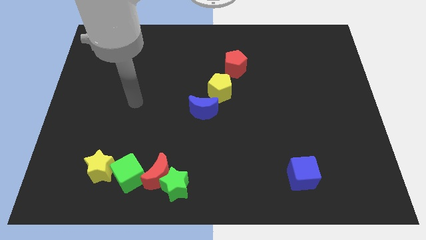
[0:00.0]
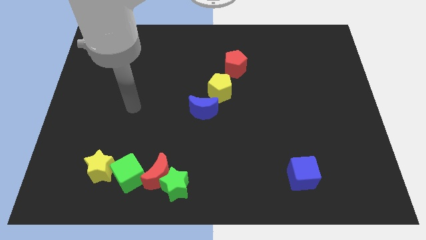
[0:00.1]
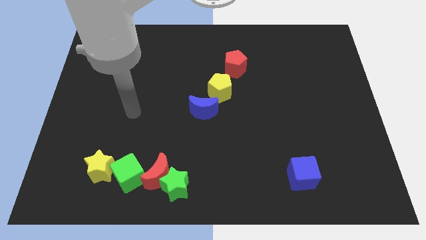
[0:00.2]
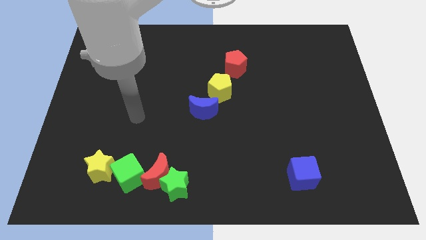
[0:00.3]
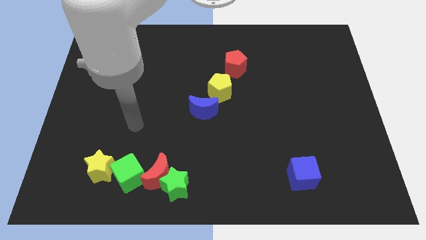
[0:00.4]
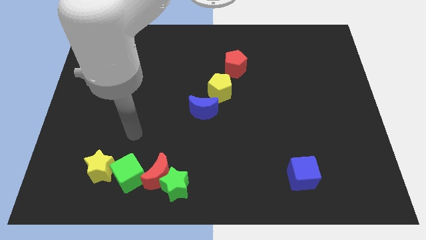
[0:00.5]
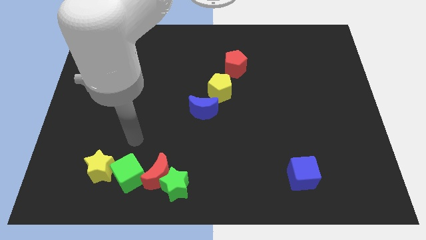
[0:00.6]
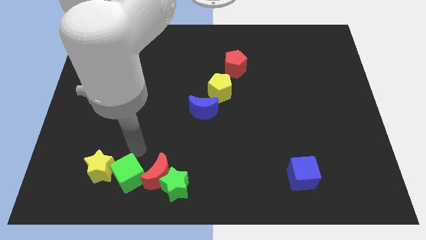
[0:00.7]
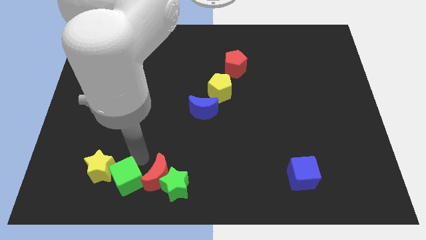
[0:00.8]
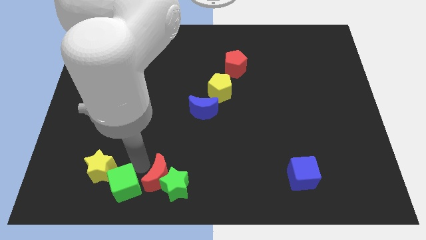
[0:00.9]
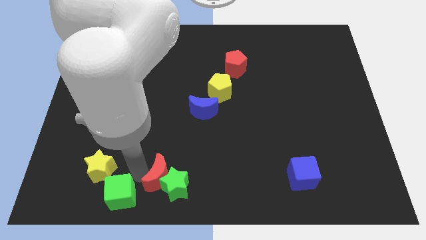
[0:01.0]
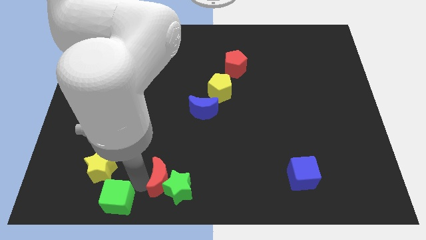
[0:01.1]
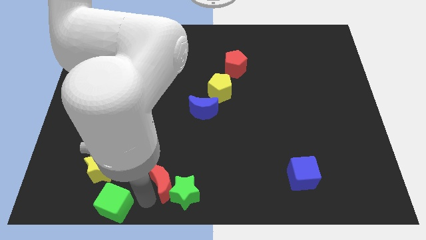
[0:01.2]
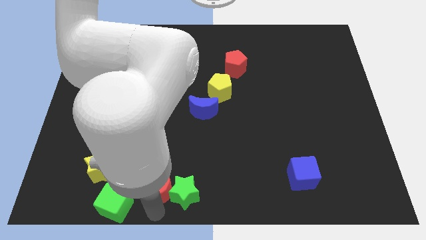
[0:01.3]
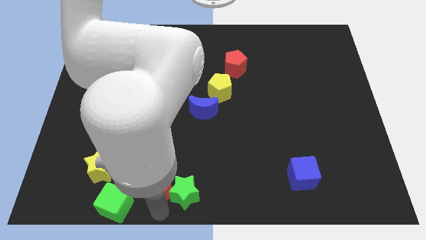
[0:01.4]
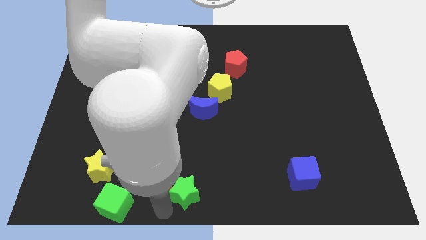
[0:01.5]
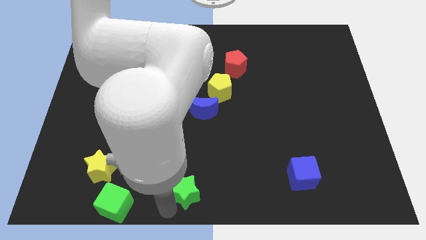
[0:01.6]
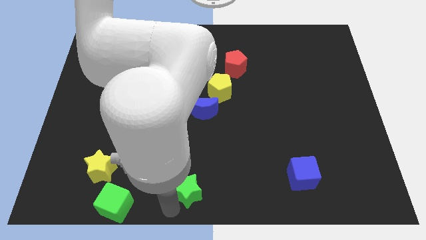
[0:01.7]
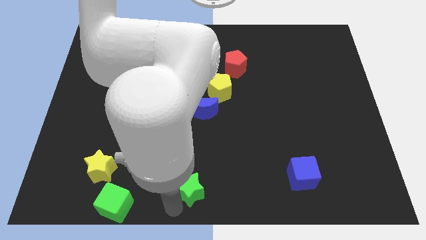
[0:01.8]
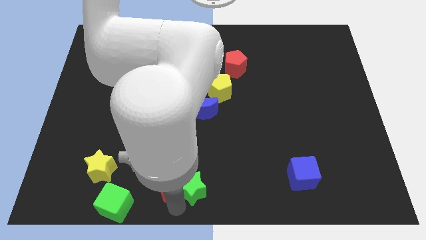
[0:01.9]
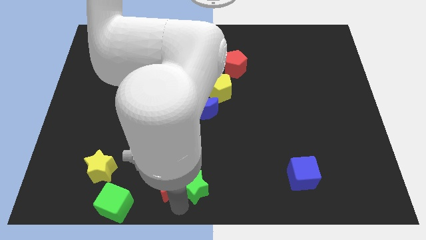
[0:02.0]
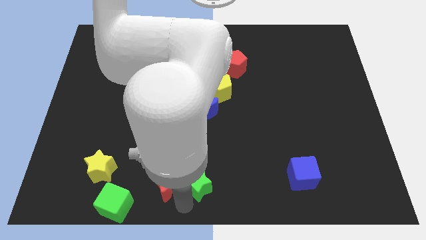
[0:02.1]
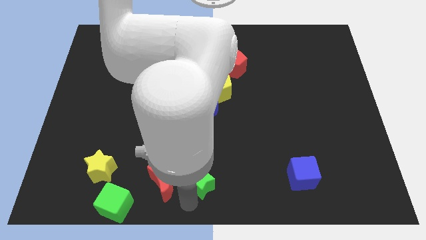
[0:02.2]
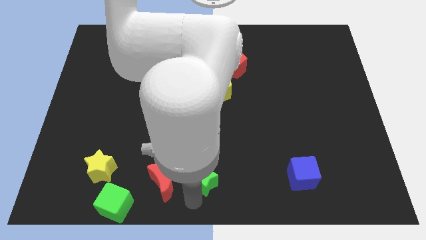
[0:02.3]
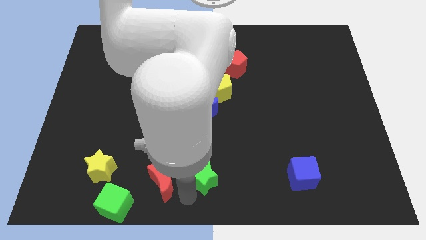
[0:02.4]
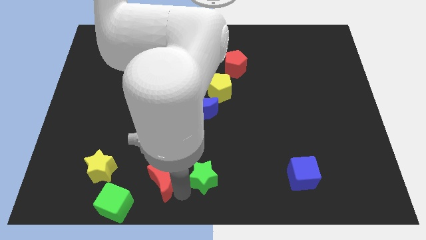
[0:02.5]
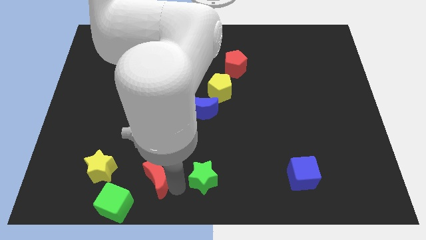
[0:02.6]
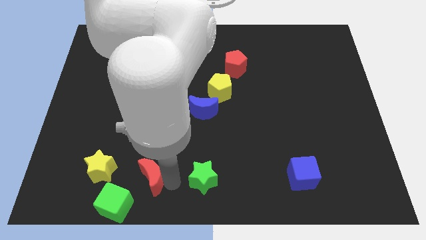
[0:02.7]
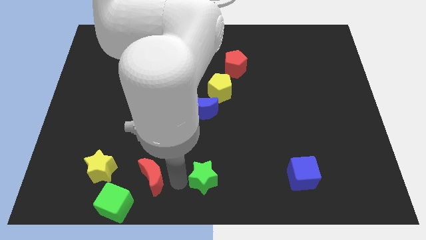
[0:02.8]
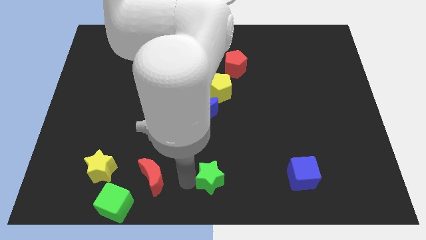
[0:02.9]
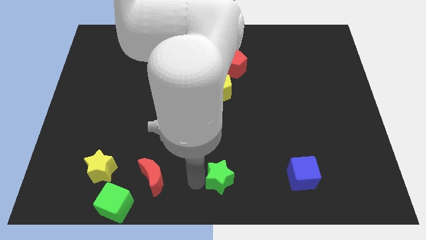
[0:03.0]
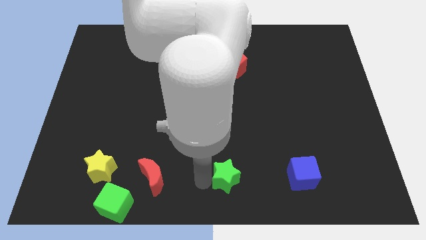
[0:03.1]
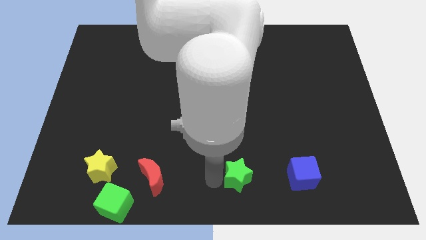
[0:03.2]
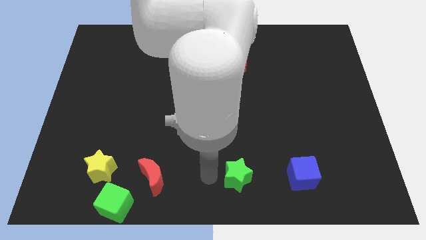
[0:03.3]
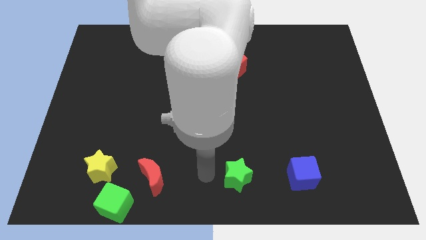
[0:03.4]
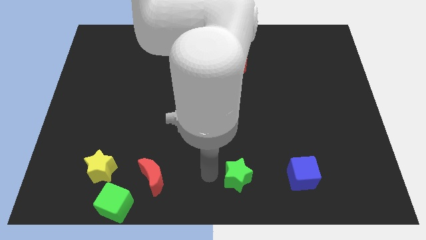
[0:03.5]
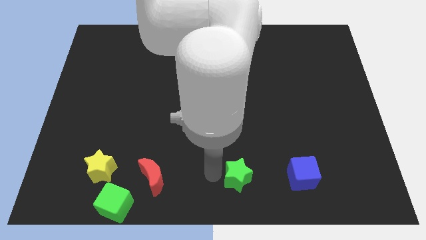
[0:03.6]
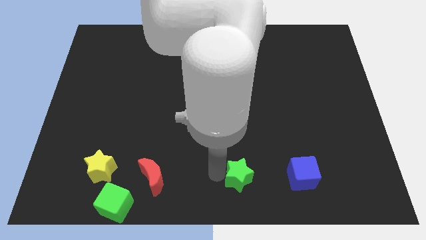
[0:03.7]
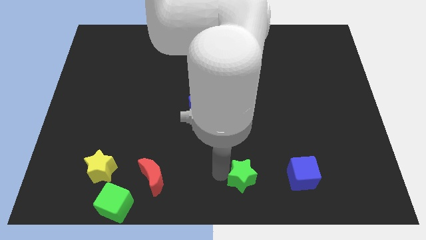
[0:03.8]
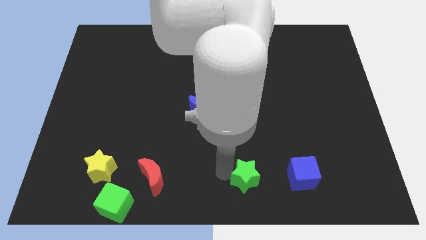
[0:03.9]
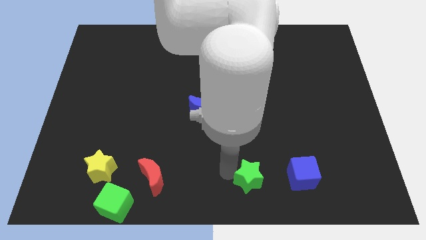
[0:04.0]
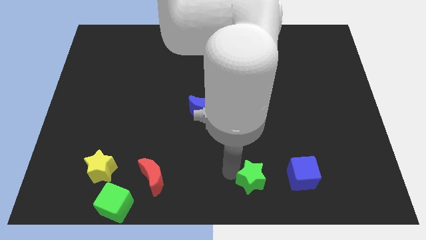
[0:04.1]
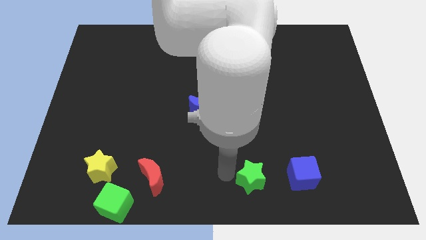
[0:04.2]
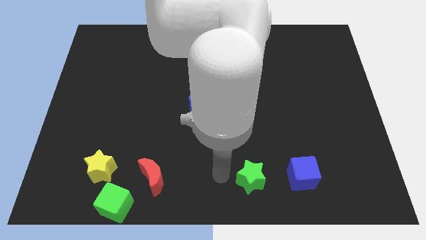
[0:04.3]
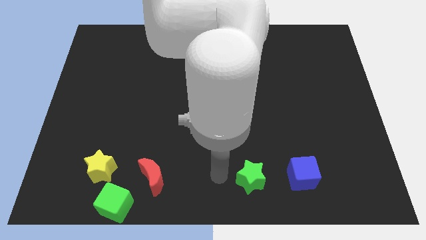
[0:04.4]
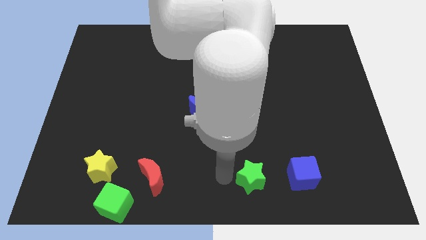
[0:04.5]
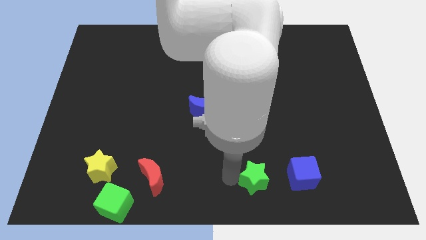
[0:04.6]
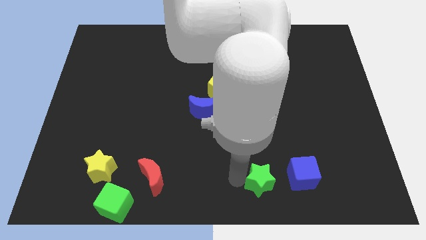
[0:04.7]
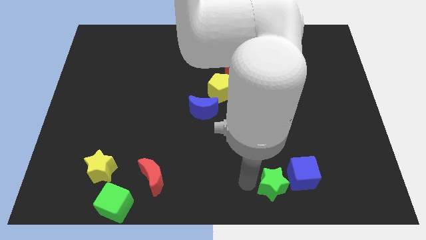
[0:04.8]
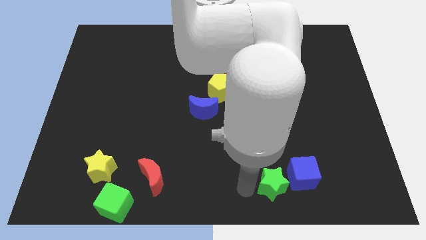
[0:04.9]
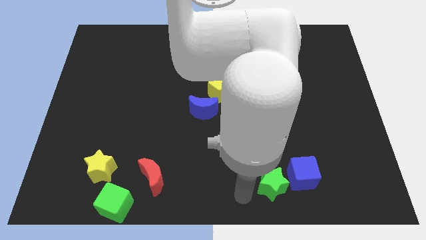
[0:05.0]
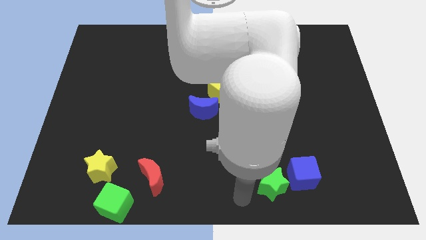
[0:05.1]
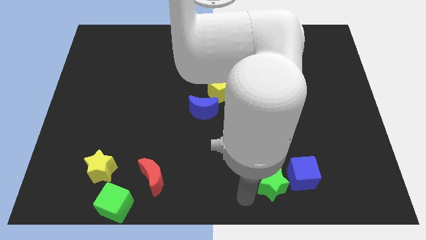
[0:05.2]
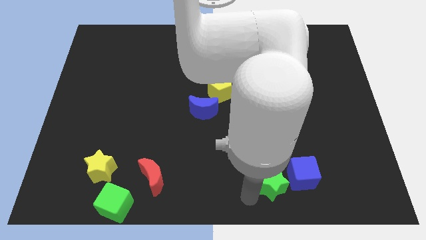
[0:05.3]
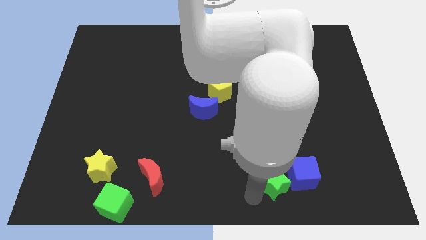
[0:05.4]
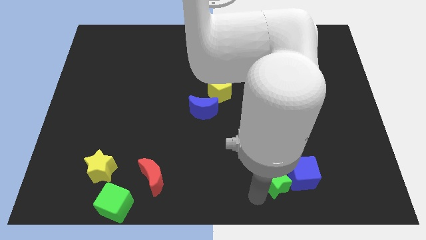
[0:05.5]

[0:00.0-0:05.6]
move the green star next to the blue cube

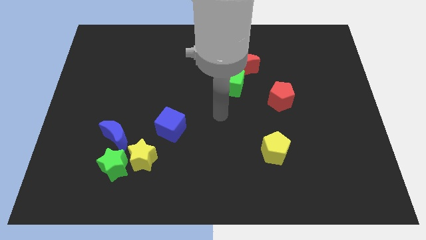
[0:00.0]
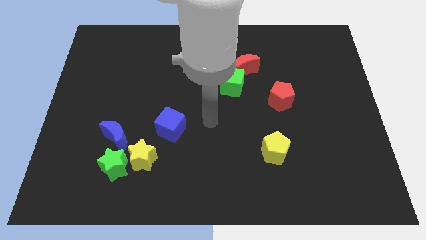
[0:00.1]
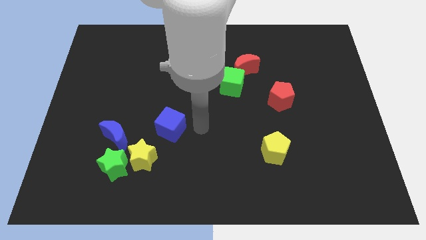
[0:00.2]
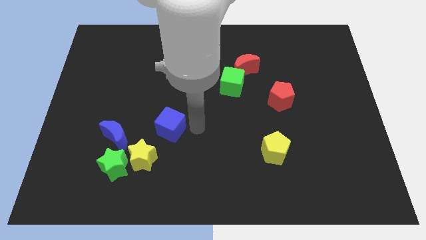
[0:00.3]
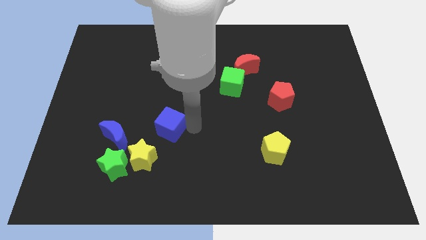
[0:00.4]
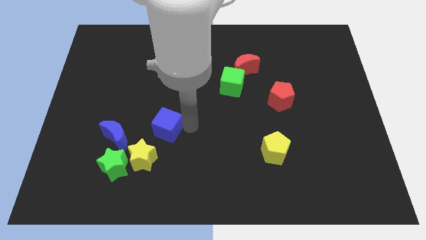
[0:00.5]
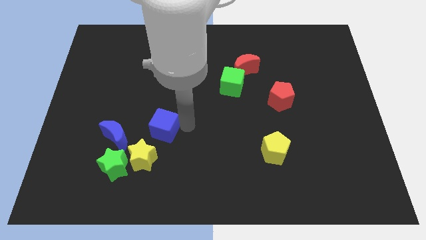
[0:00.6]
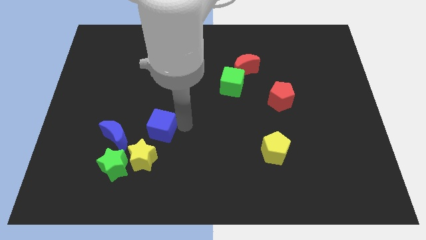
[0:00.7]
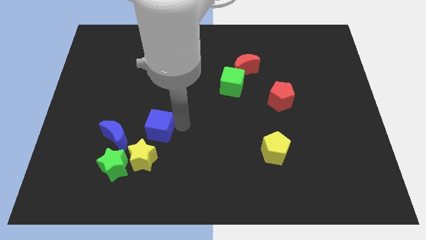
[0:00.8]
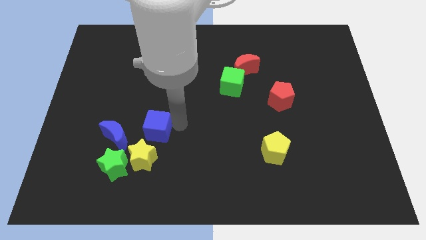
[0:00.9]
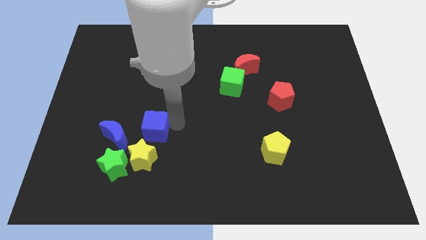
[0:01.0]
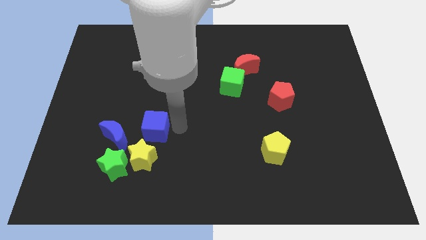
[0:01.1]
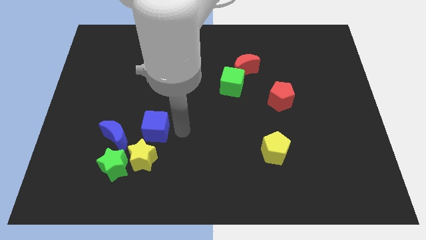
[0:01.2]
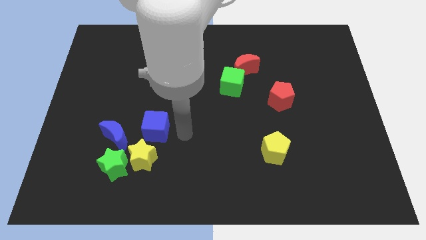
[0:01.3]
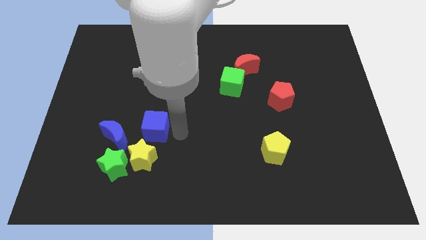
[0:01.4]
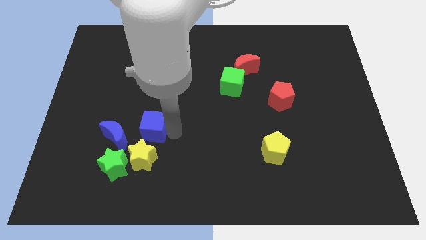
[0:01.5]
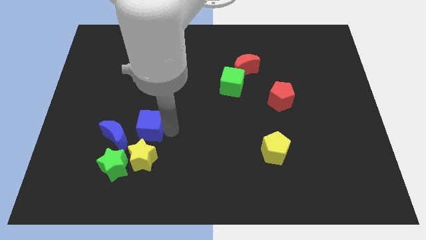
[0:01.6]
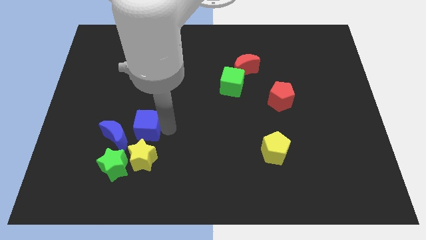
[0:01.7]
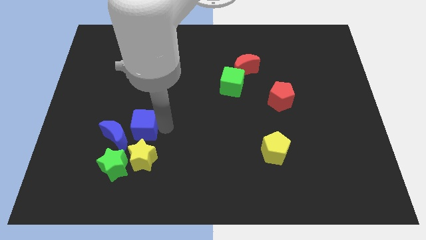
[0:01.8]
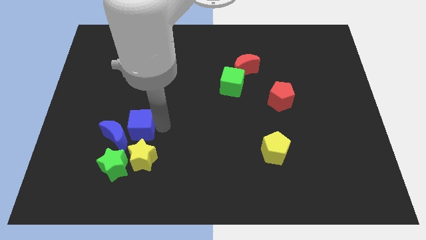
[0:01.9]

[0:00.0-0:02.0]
slide the blue cube to the blue moon
